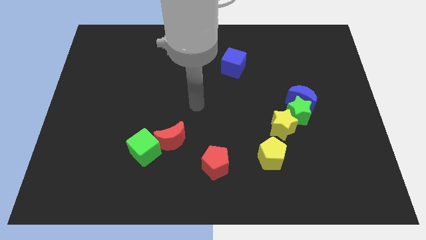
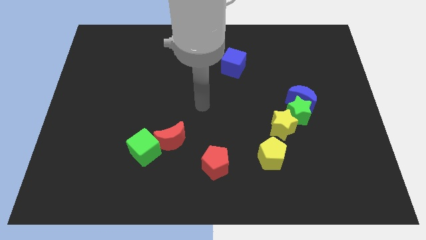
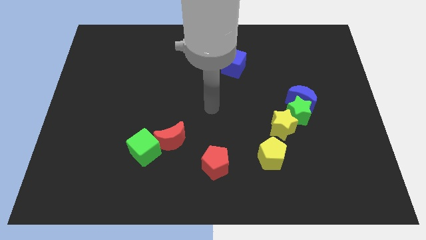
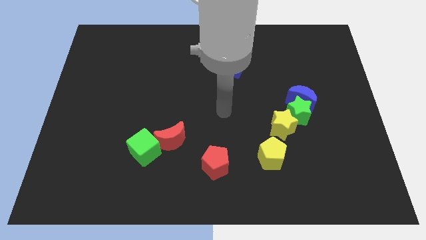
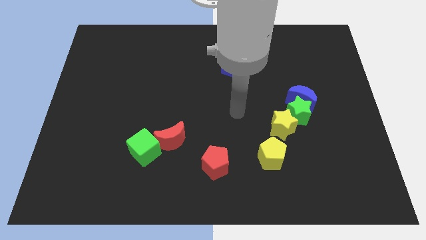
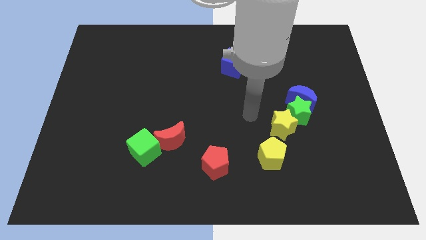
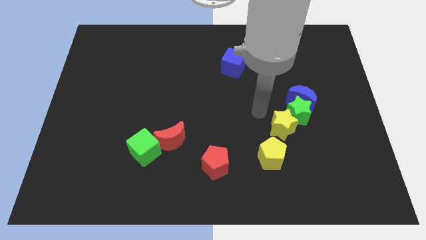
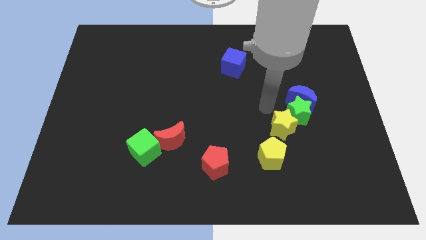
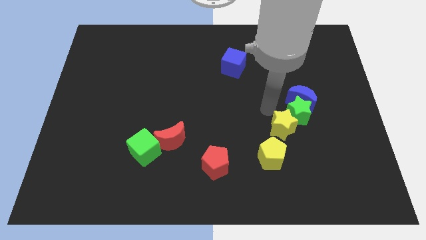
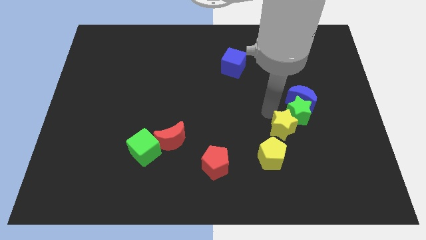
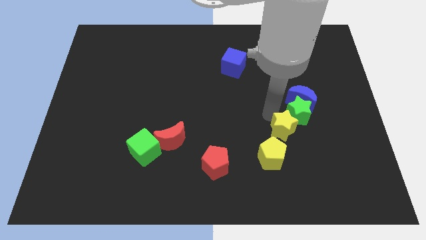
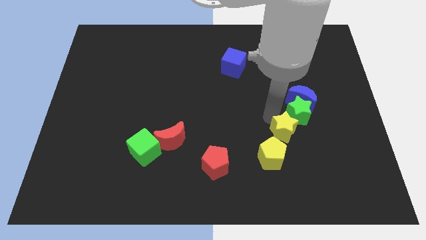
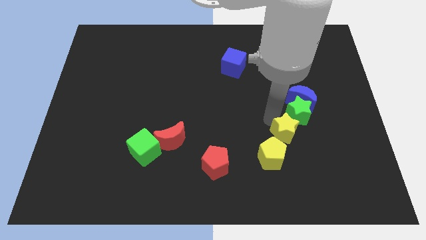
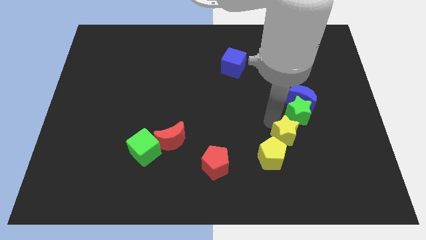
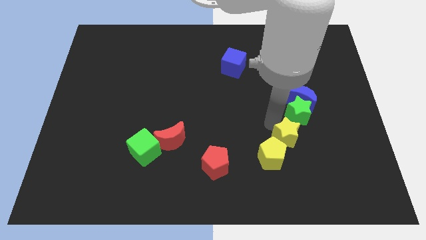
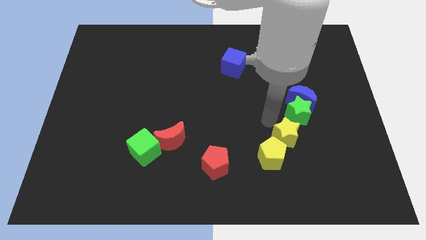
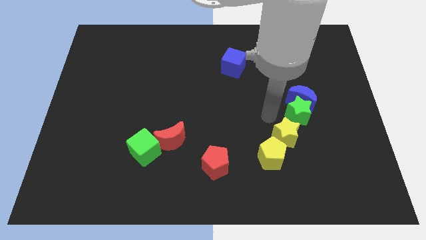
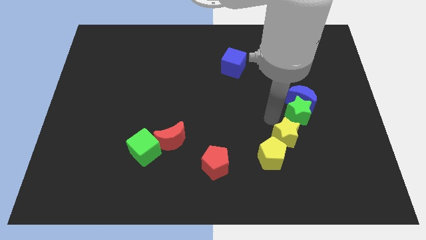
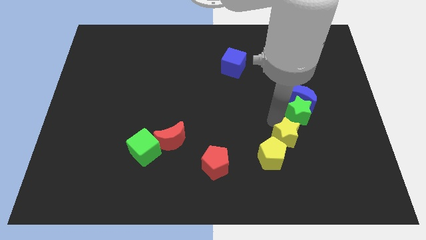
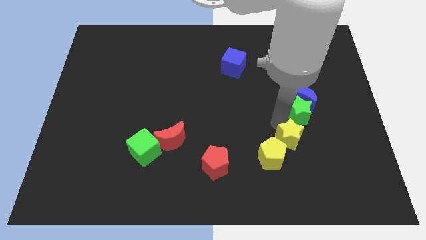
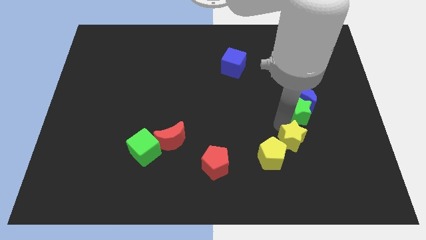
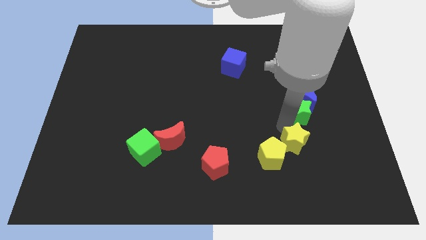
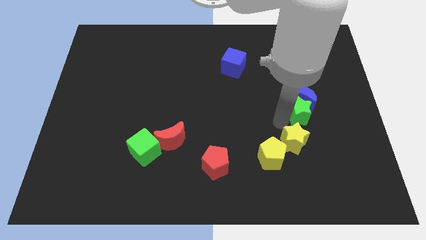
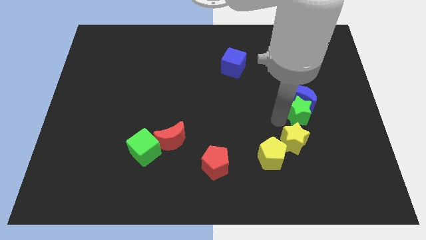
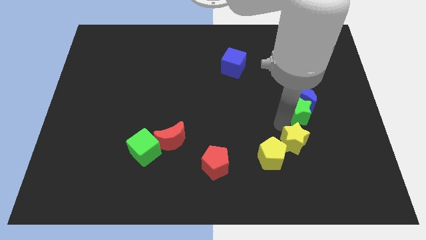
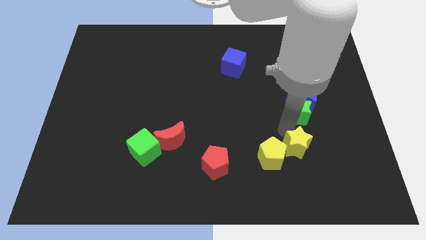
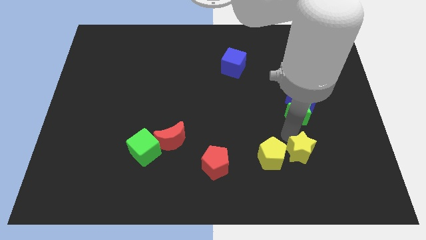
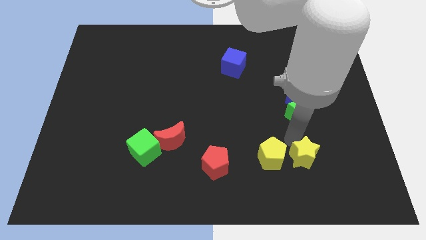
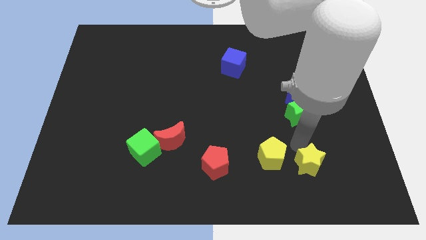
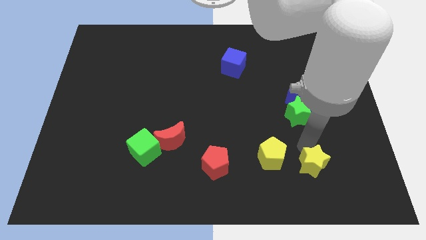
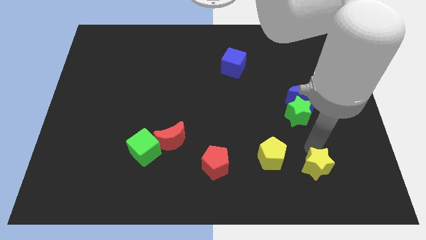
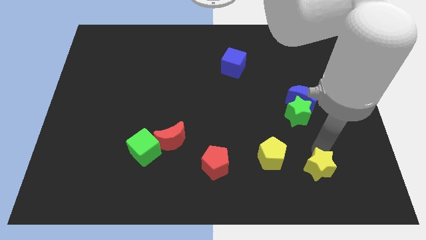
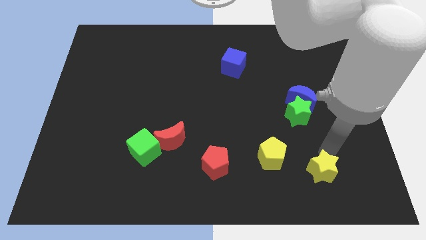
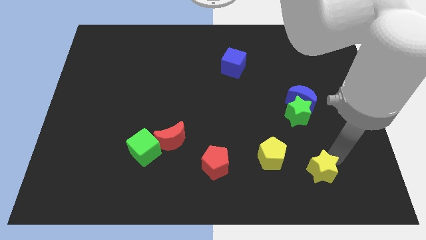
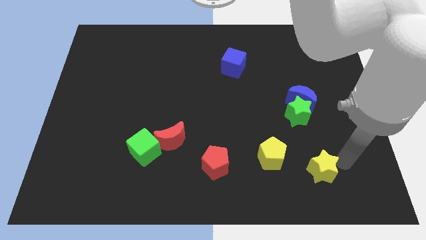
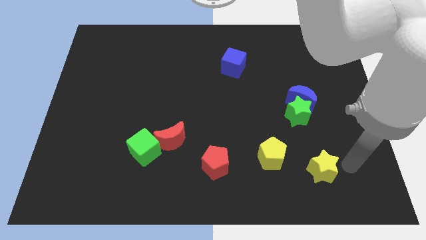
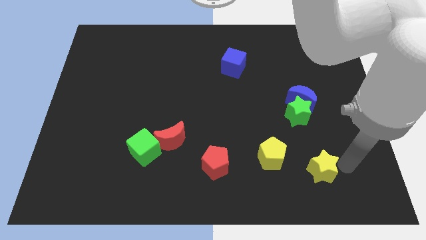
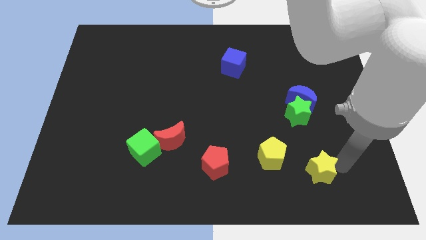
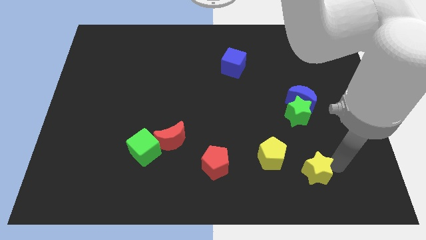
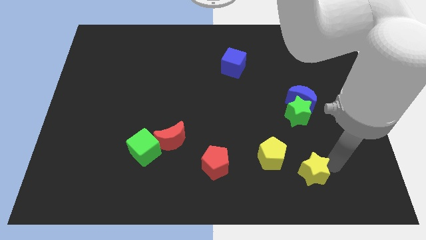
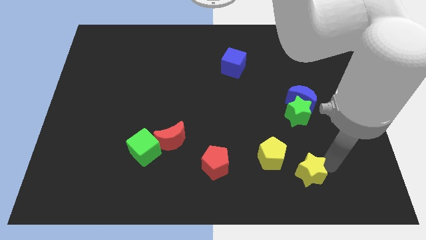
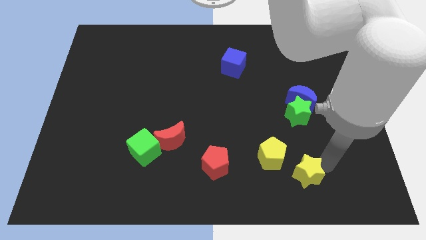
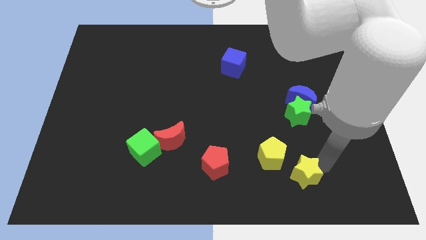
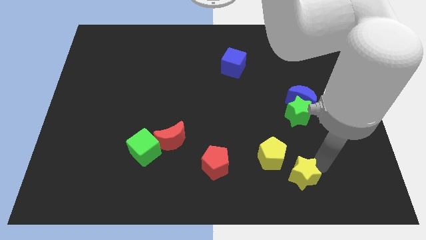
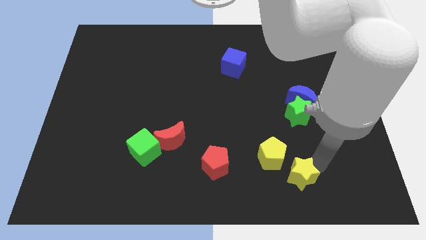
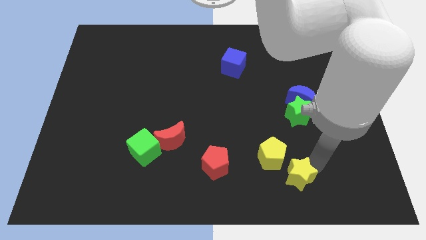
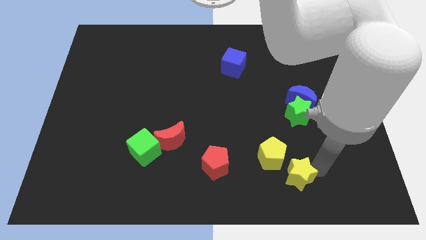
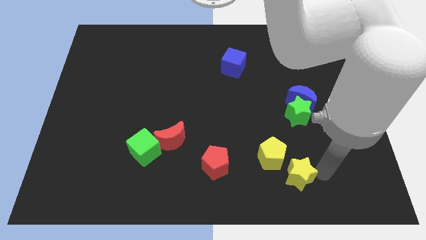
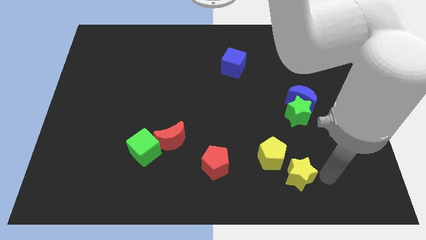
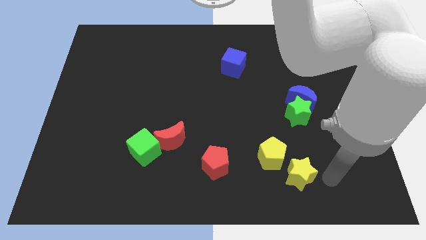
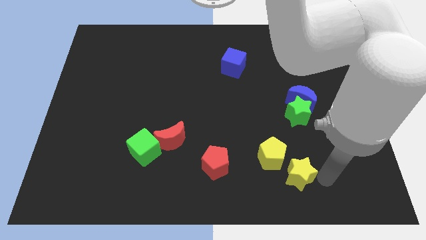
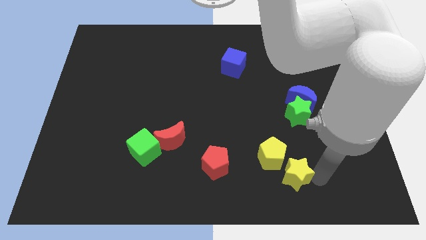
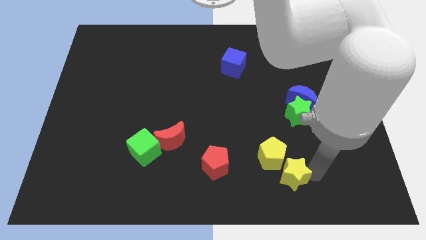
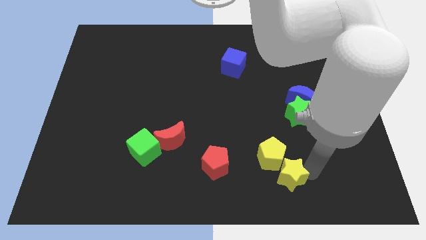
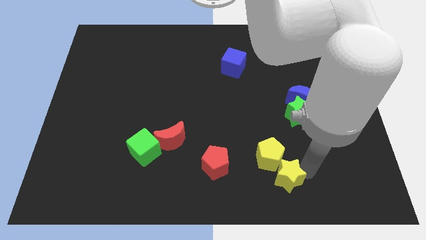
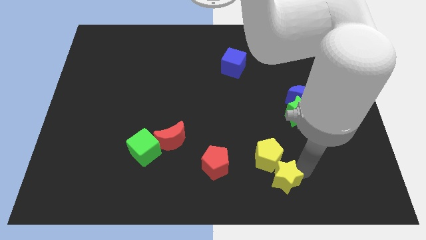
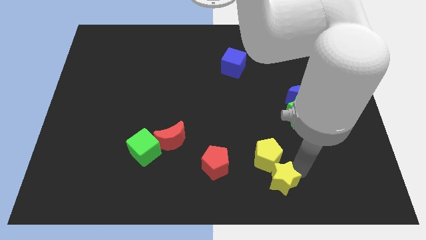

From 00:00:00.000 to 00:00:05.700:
slightly move the yellow star downwards and then left

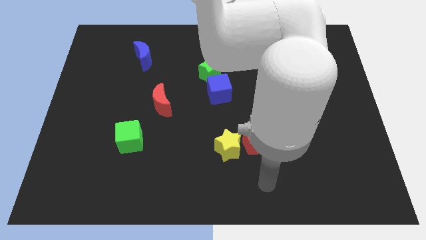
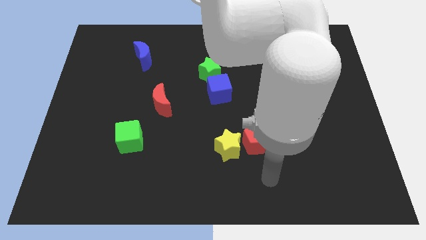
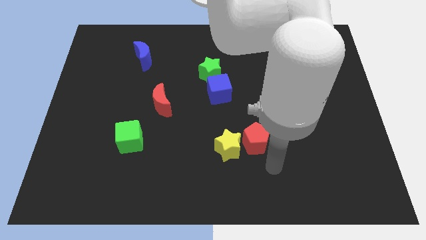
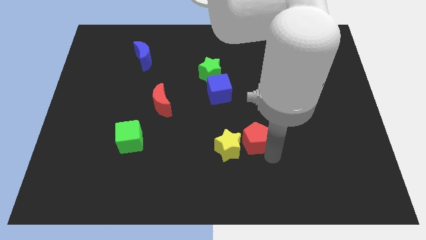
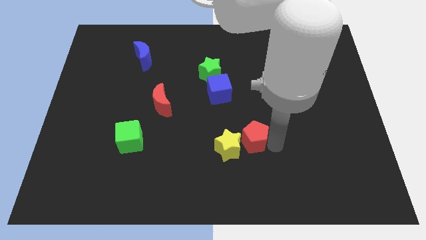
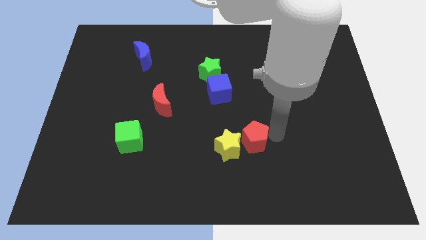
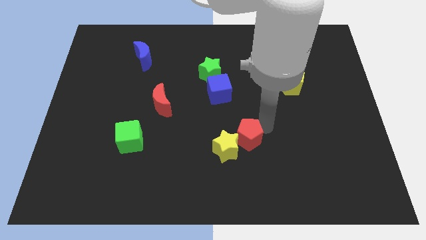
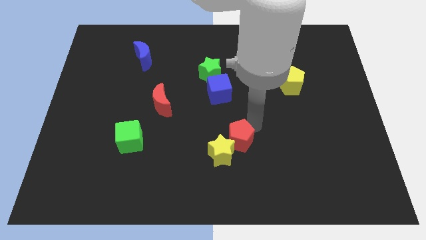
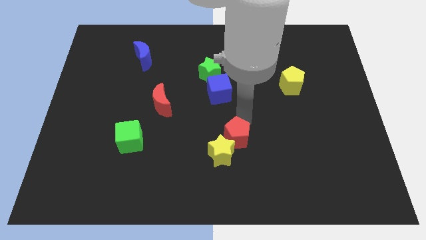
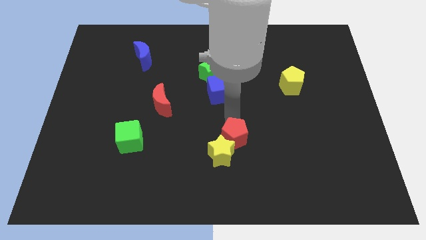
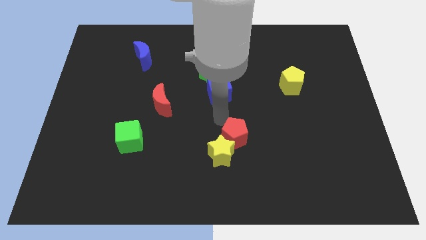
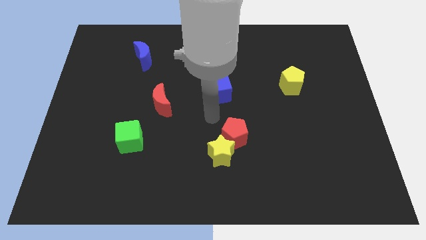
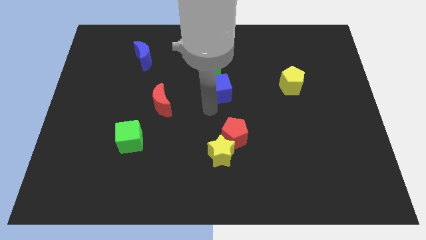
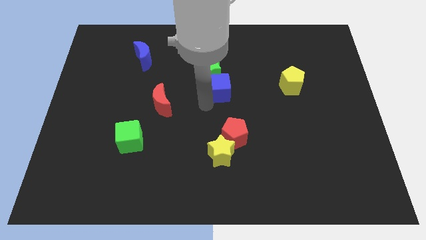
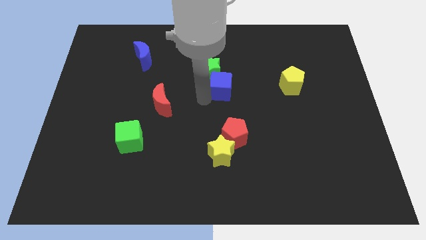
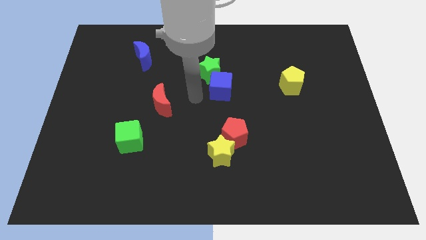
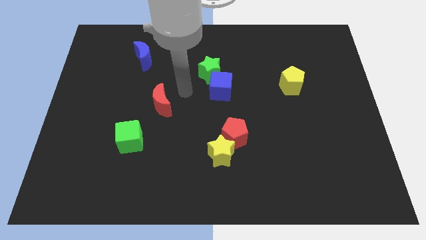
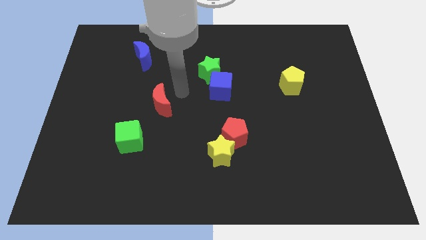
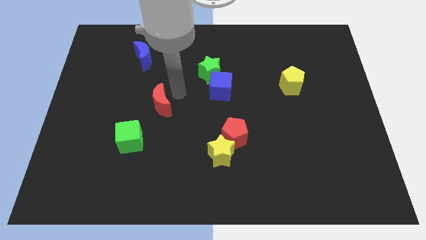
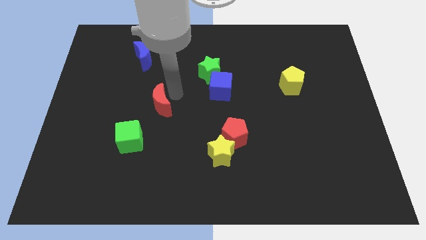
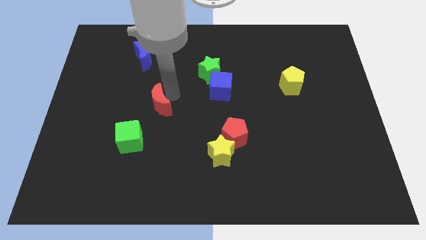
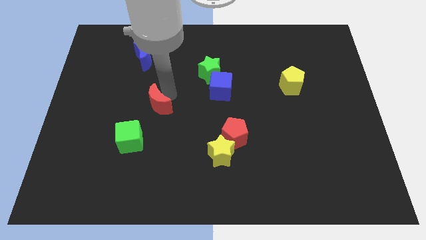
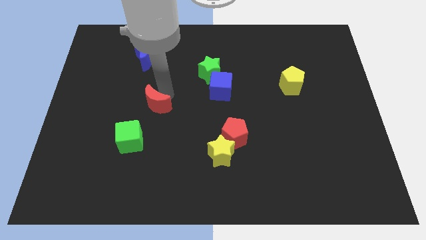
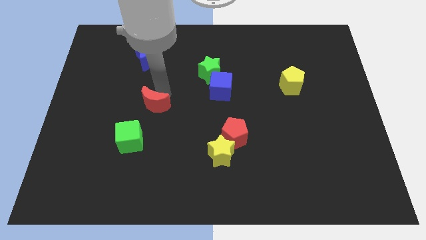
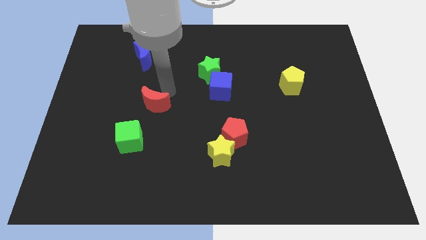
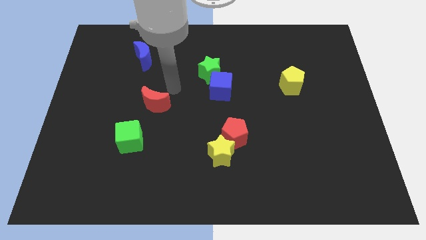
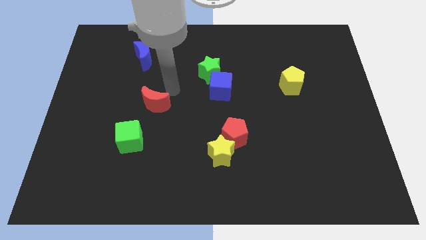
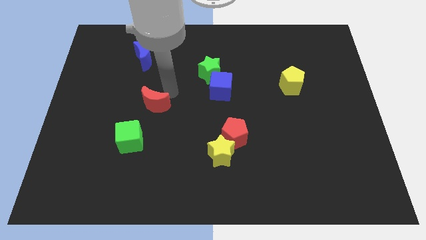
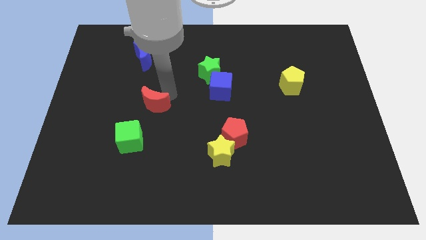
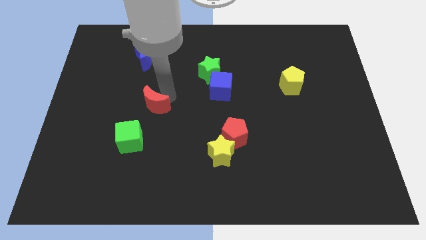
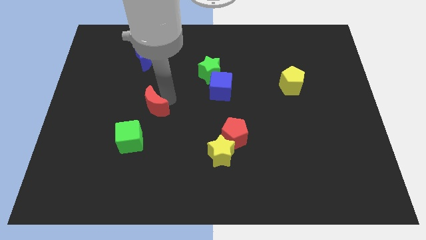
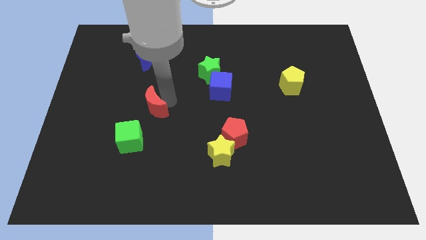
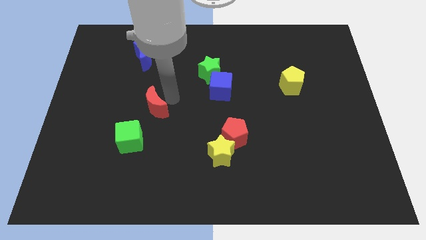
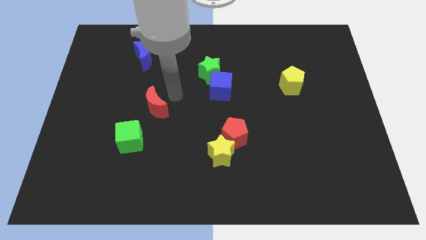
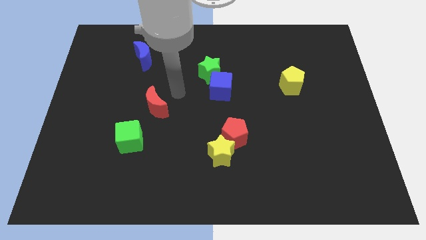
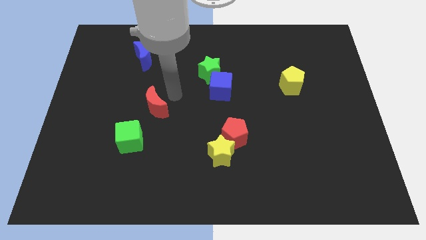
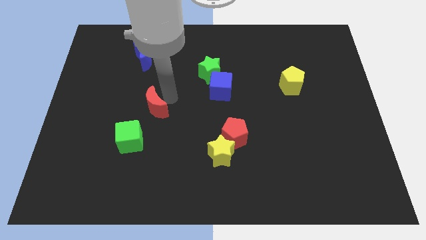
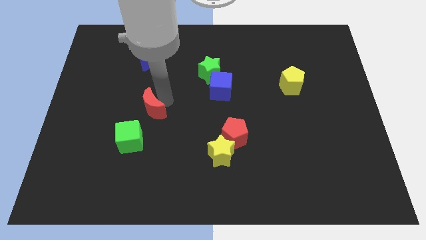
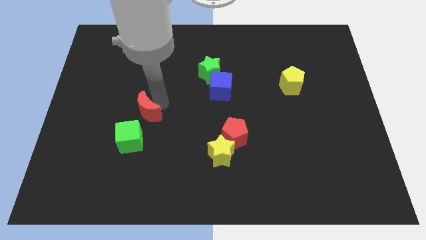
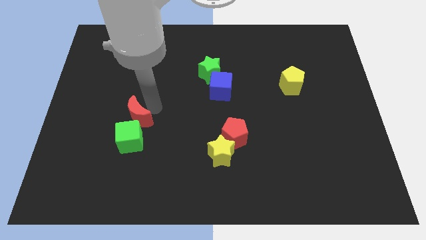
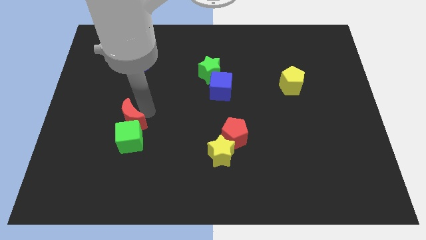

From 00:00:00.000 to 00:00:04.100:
move the red moon a little downwards and to the left diagonally
